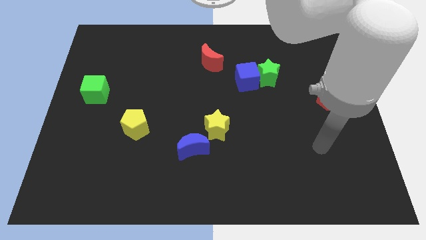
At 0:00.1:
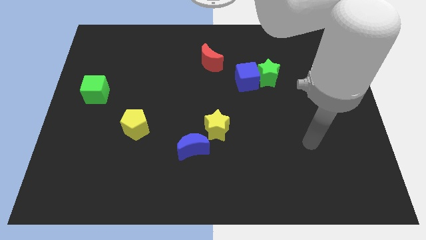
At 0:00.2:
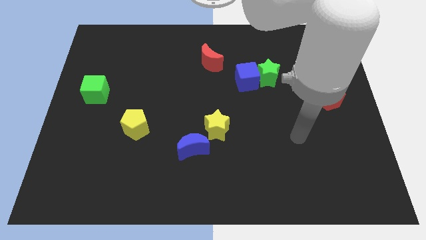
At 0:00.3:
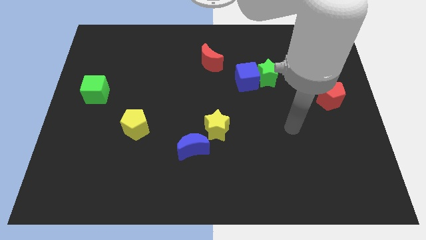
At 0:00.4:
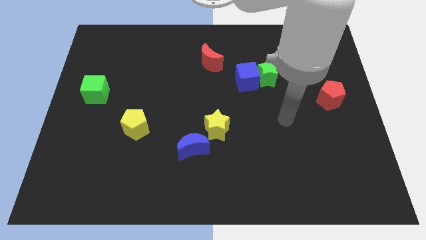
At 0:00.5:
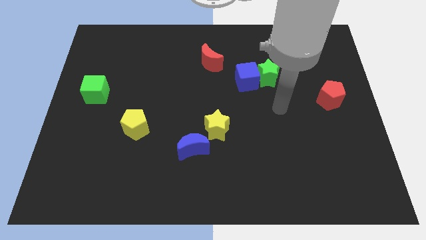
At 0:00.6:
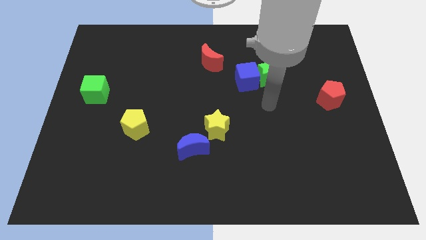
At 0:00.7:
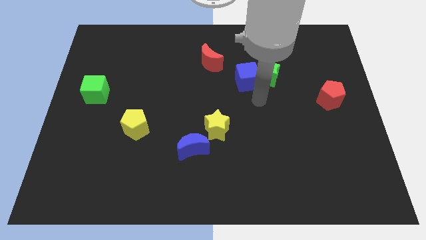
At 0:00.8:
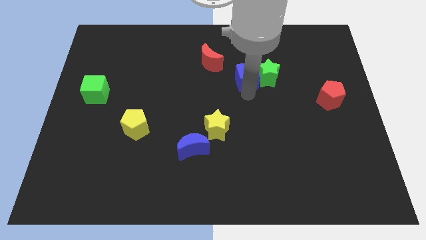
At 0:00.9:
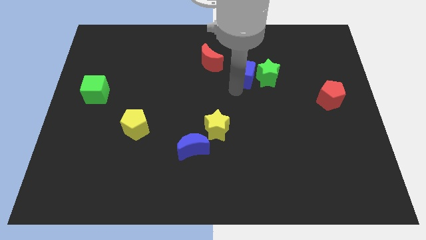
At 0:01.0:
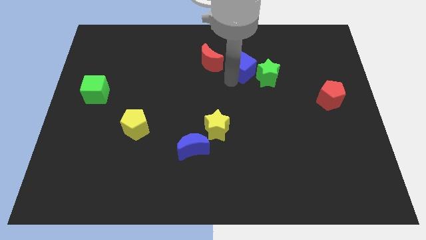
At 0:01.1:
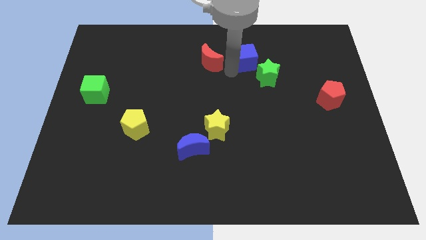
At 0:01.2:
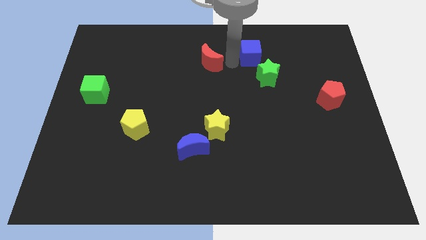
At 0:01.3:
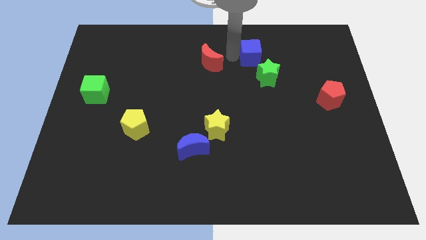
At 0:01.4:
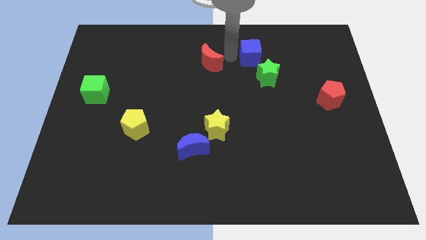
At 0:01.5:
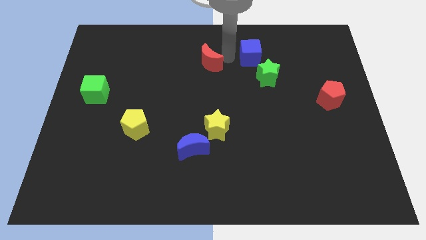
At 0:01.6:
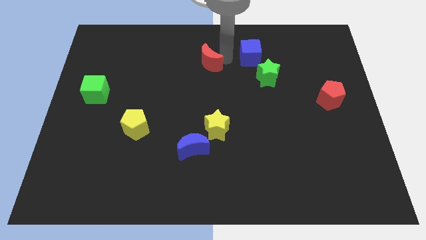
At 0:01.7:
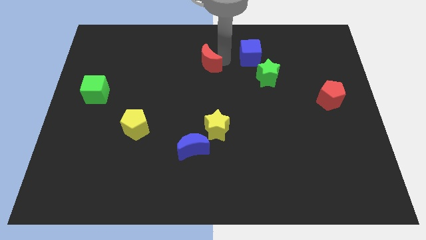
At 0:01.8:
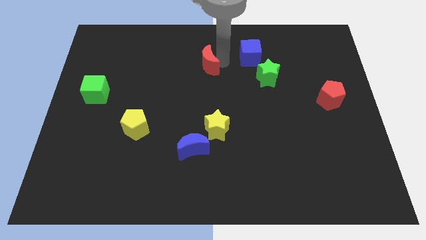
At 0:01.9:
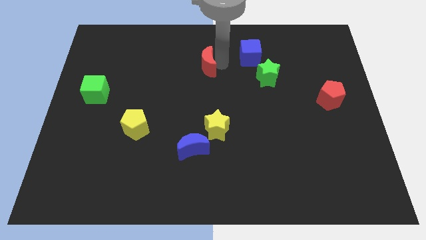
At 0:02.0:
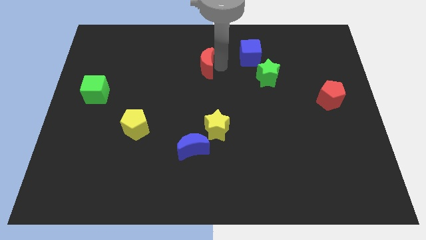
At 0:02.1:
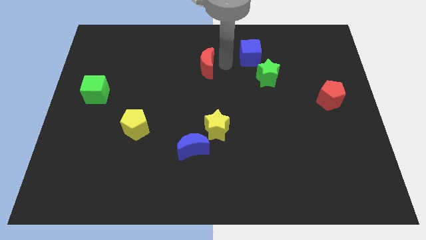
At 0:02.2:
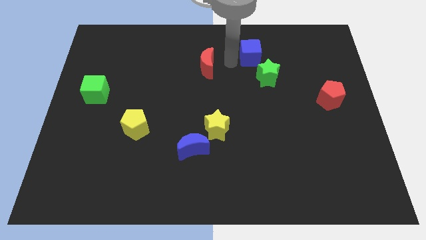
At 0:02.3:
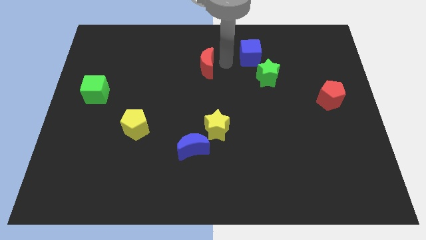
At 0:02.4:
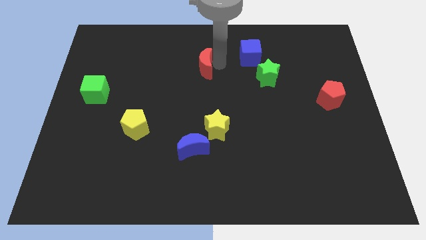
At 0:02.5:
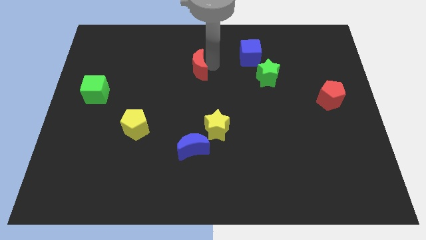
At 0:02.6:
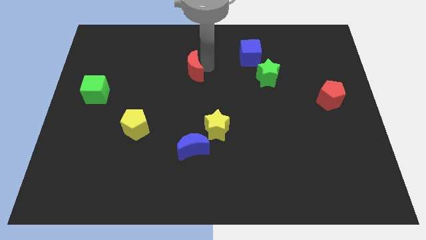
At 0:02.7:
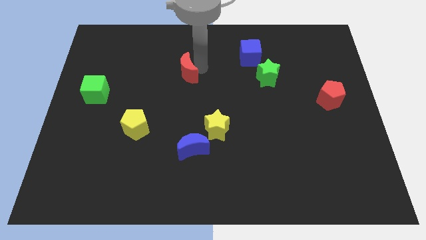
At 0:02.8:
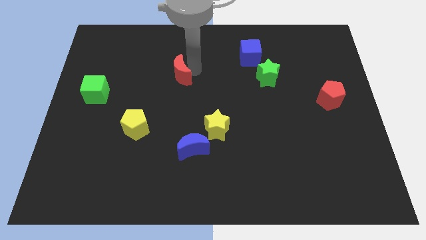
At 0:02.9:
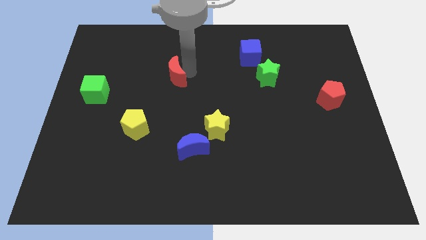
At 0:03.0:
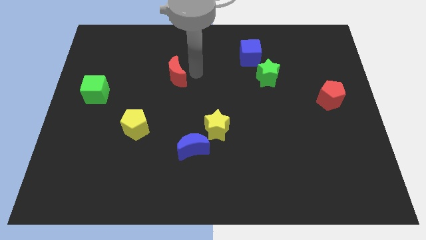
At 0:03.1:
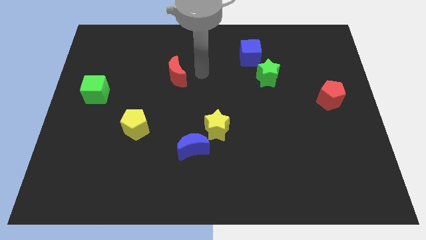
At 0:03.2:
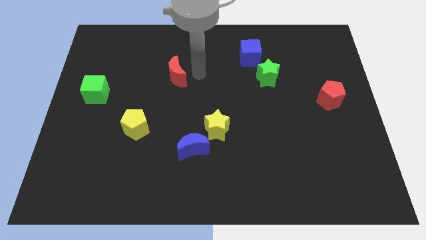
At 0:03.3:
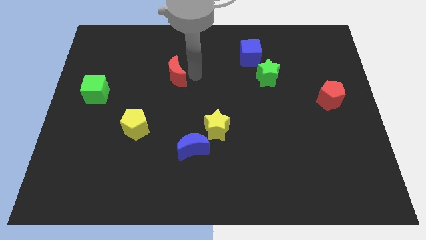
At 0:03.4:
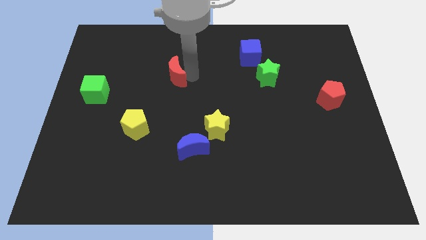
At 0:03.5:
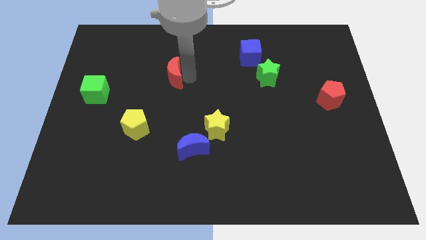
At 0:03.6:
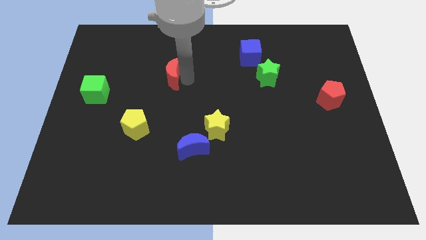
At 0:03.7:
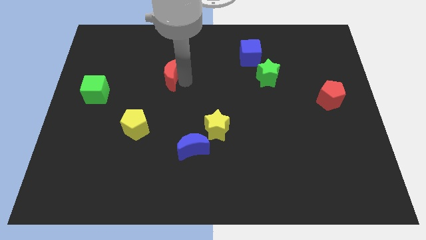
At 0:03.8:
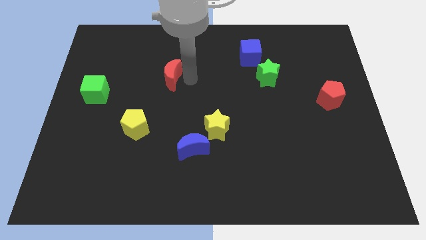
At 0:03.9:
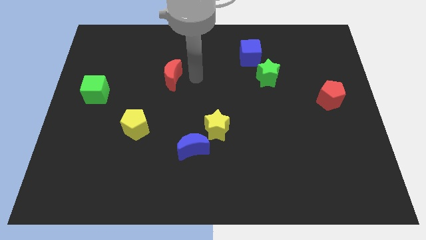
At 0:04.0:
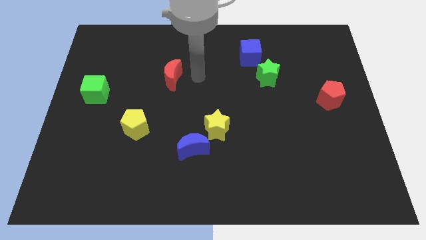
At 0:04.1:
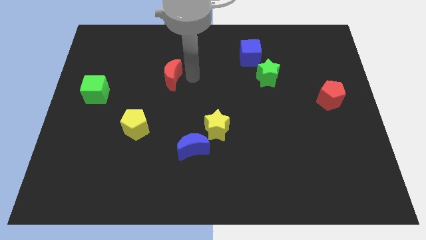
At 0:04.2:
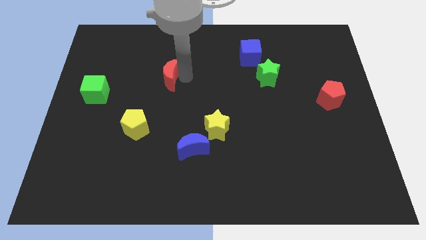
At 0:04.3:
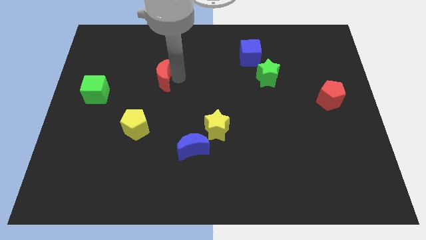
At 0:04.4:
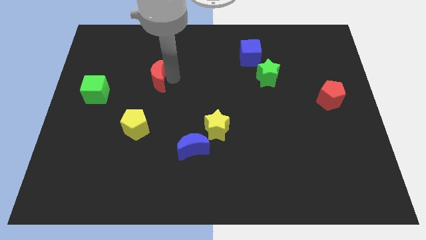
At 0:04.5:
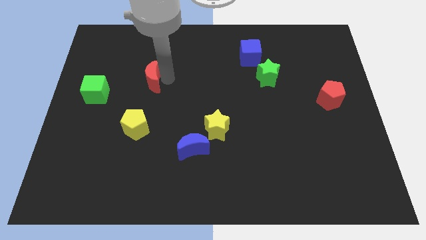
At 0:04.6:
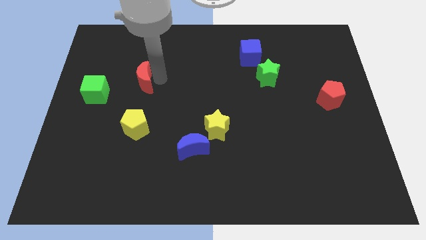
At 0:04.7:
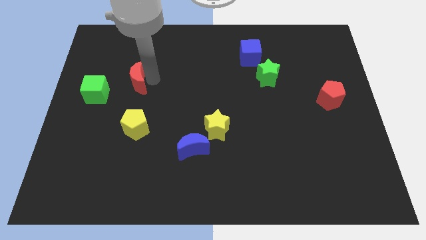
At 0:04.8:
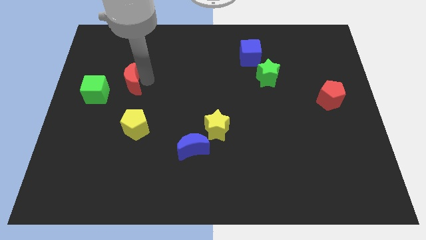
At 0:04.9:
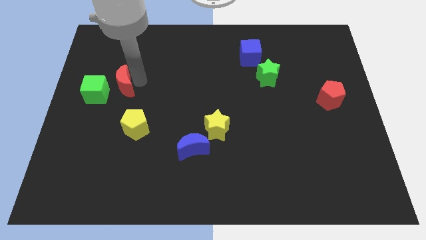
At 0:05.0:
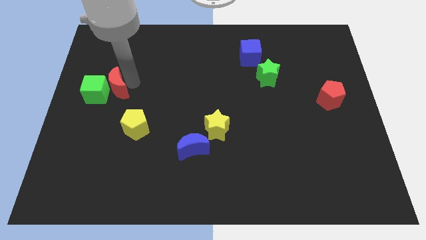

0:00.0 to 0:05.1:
push the red moon next to the green cube

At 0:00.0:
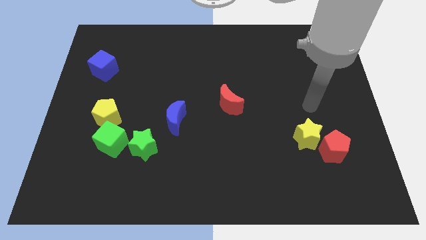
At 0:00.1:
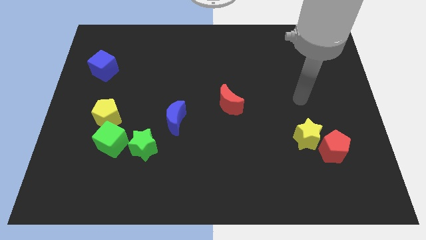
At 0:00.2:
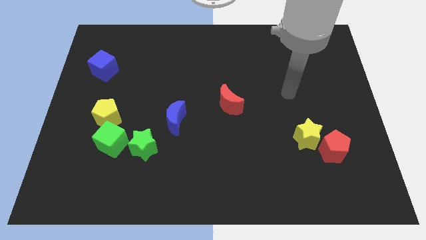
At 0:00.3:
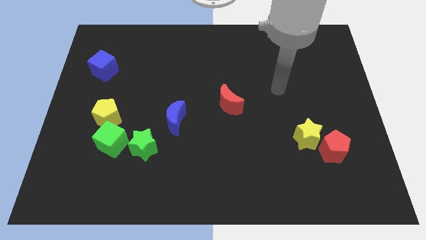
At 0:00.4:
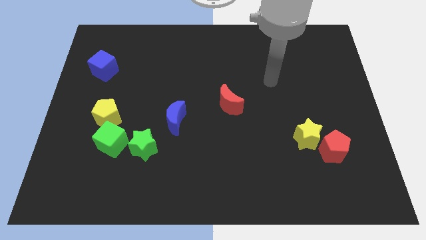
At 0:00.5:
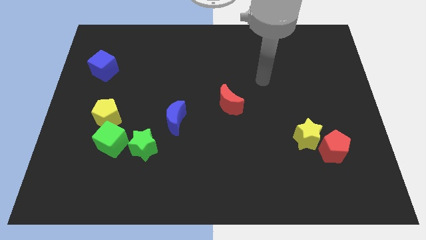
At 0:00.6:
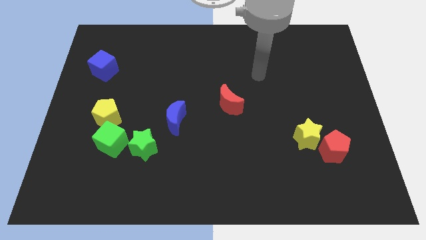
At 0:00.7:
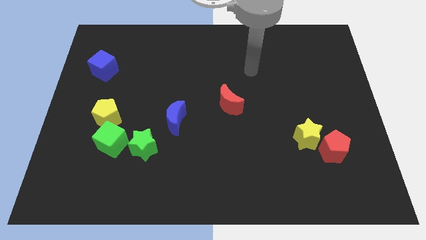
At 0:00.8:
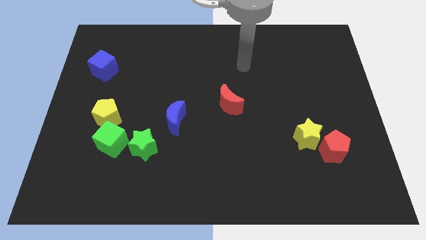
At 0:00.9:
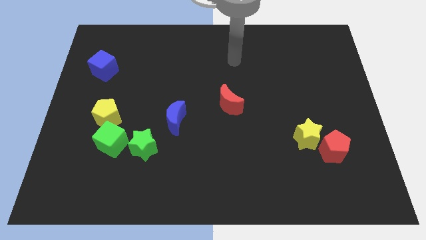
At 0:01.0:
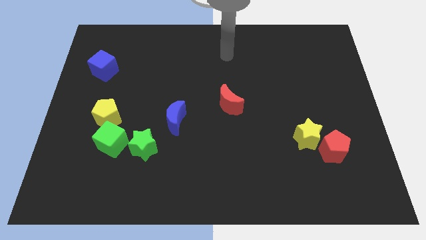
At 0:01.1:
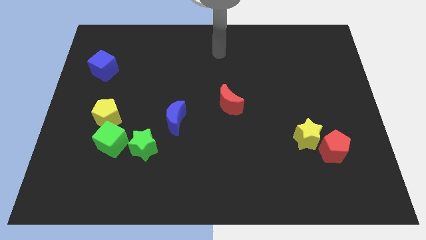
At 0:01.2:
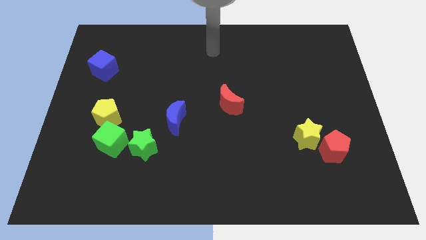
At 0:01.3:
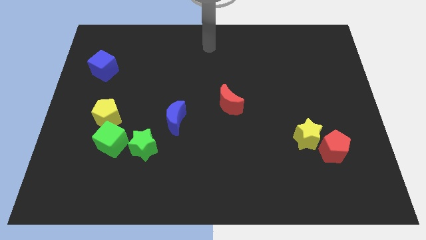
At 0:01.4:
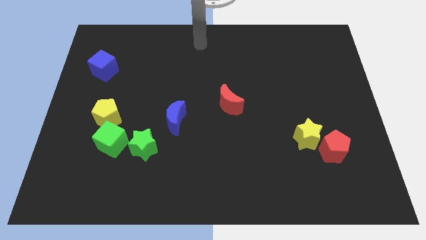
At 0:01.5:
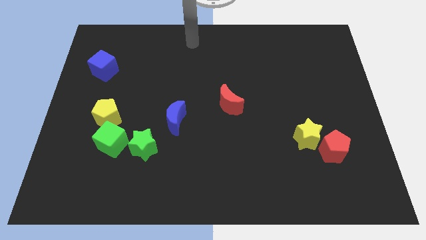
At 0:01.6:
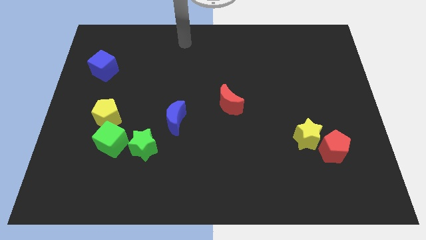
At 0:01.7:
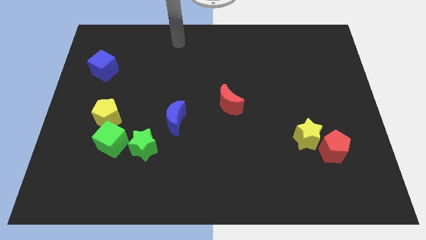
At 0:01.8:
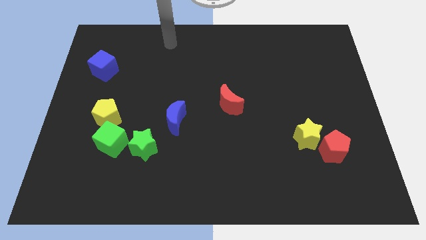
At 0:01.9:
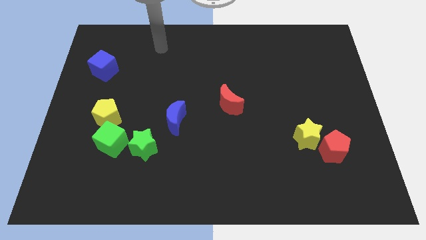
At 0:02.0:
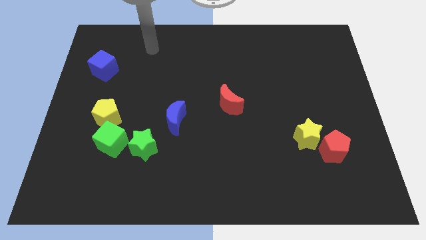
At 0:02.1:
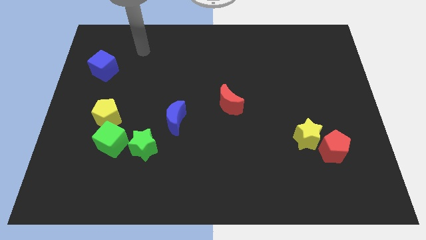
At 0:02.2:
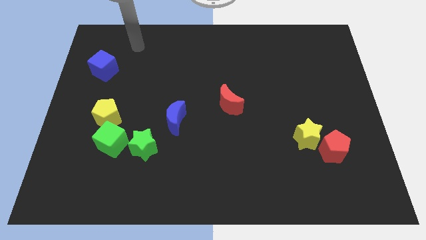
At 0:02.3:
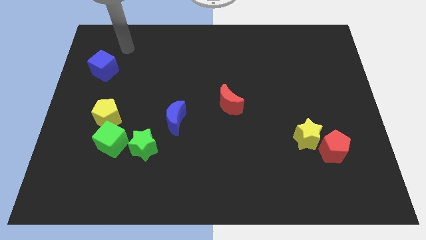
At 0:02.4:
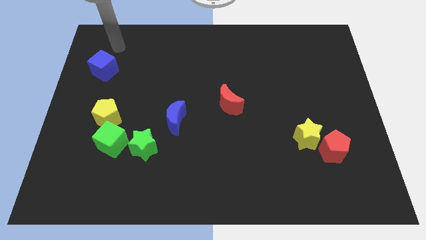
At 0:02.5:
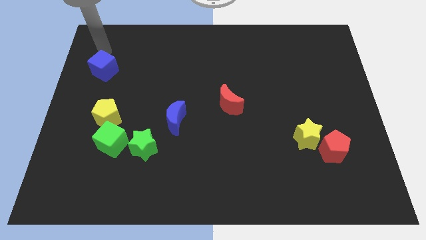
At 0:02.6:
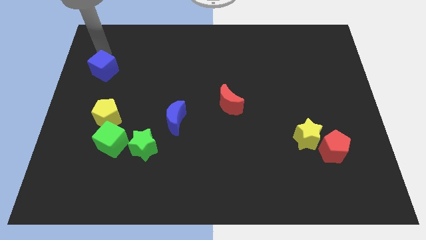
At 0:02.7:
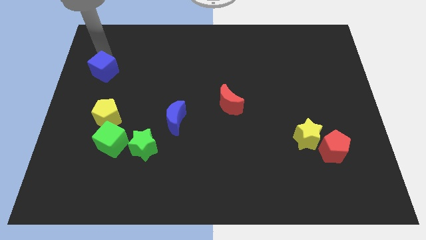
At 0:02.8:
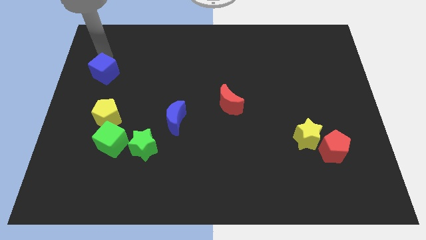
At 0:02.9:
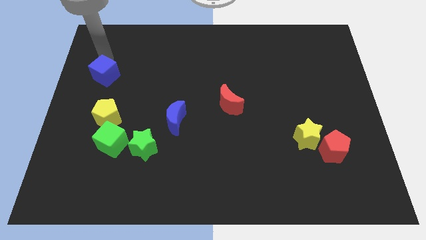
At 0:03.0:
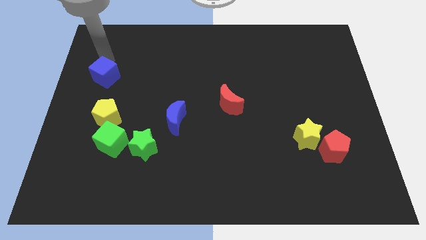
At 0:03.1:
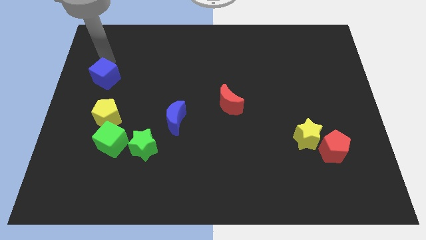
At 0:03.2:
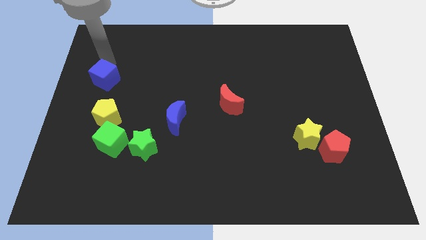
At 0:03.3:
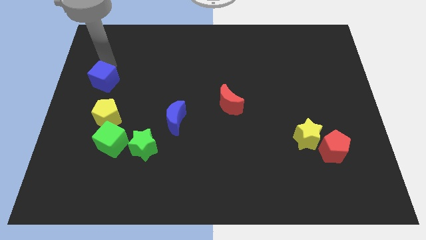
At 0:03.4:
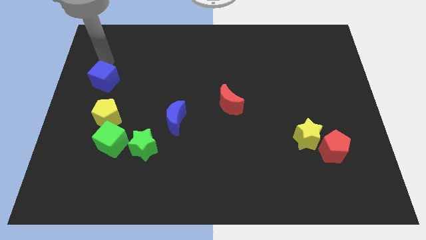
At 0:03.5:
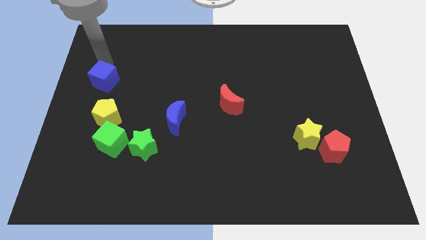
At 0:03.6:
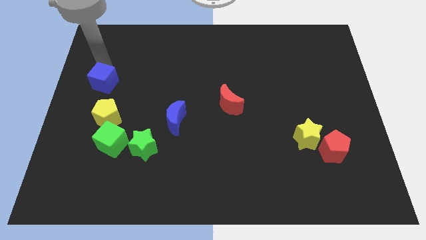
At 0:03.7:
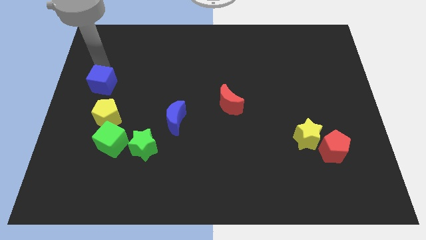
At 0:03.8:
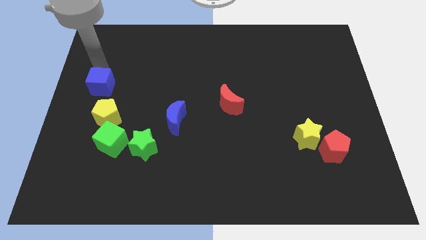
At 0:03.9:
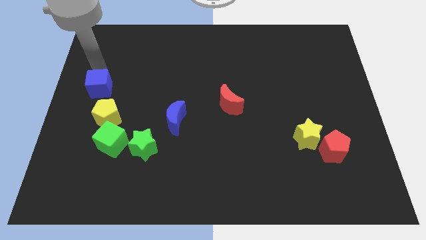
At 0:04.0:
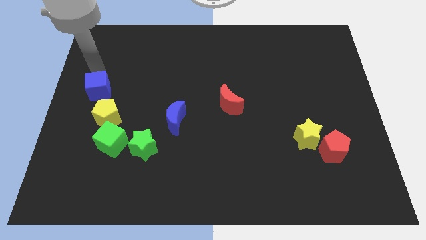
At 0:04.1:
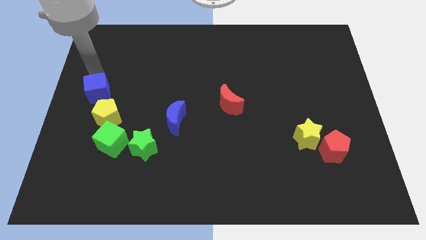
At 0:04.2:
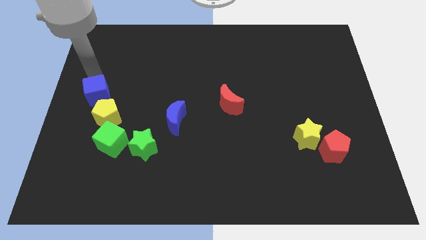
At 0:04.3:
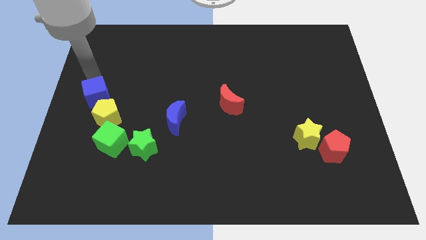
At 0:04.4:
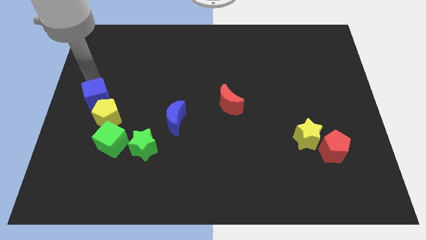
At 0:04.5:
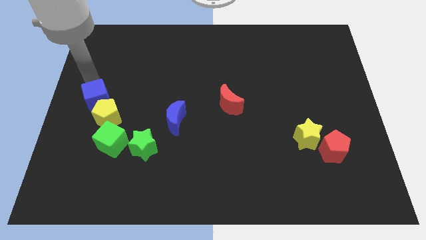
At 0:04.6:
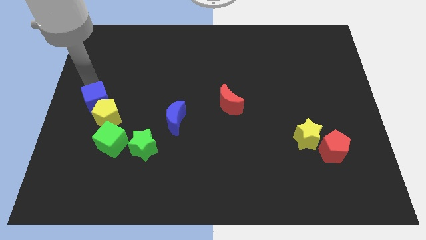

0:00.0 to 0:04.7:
put the blue cube towards the yellow pentagon
